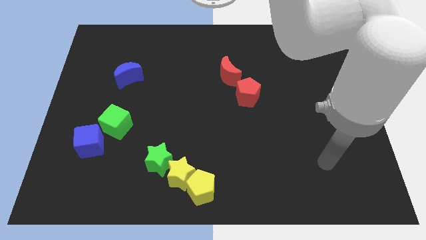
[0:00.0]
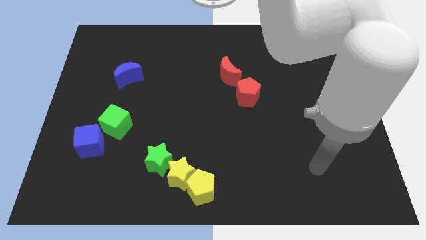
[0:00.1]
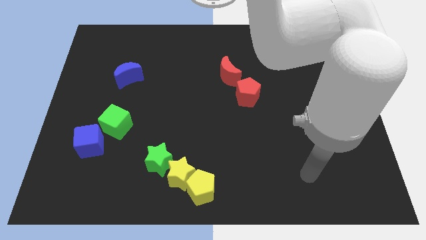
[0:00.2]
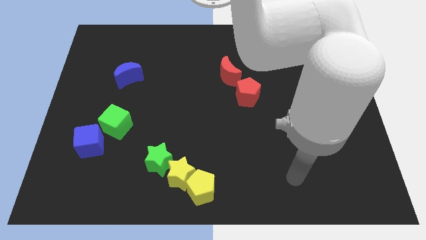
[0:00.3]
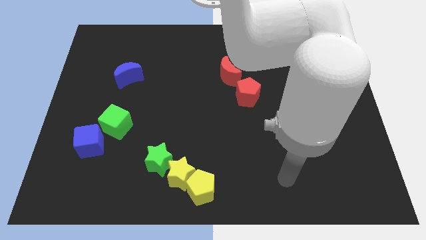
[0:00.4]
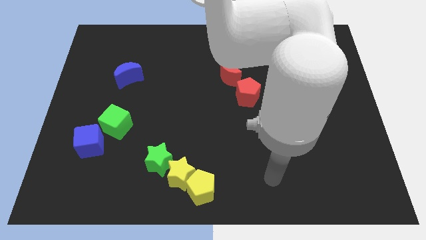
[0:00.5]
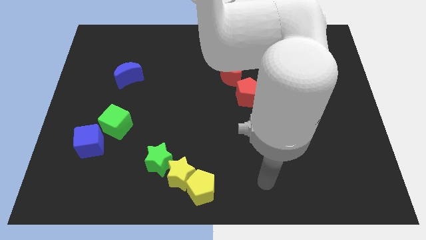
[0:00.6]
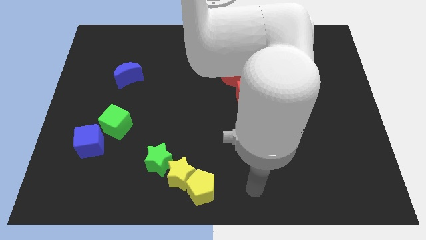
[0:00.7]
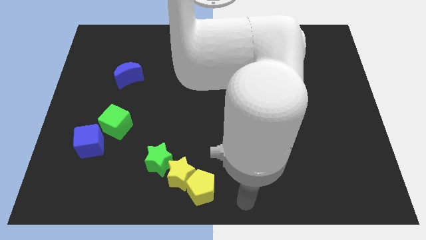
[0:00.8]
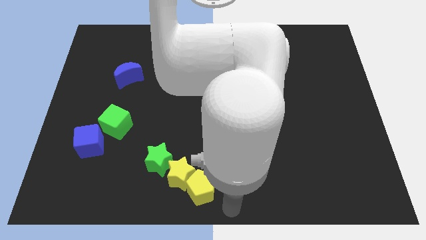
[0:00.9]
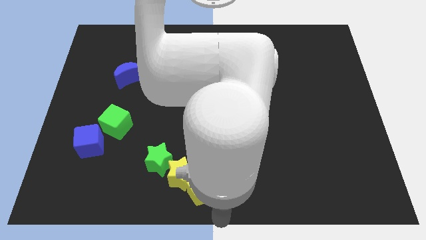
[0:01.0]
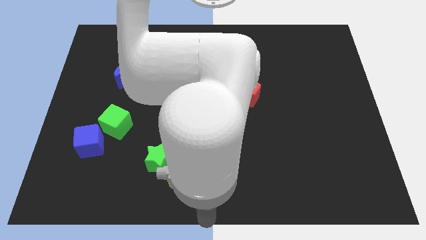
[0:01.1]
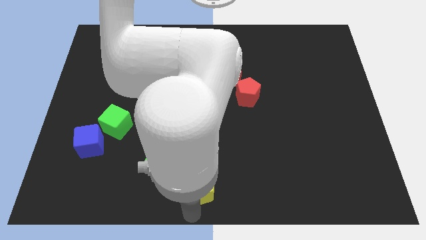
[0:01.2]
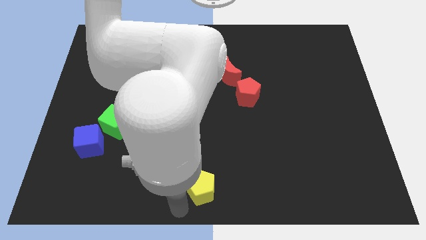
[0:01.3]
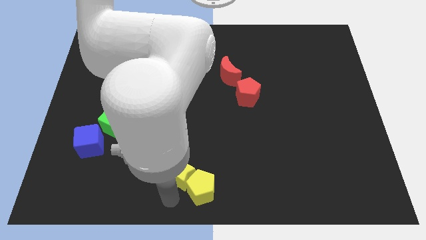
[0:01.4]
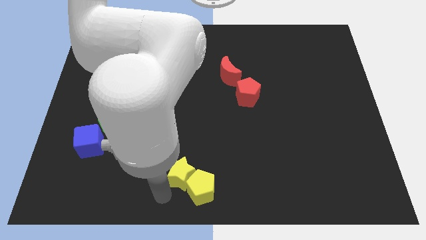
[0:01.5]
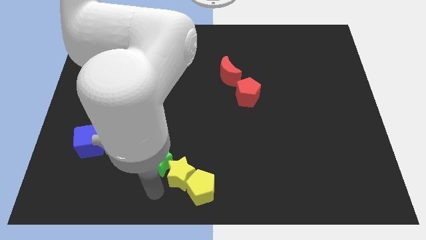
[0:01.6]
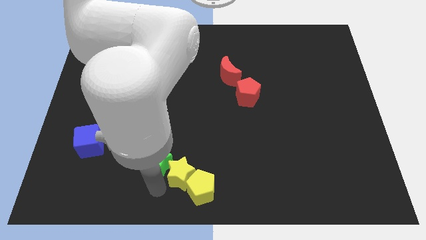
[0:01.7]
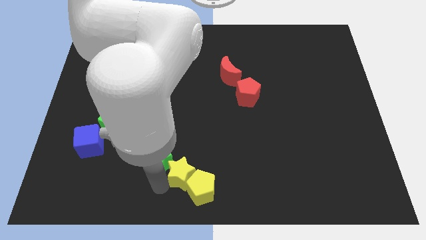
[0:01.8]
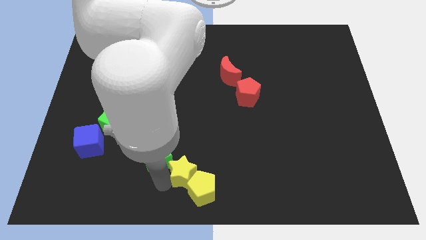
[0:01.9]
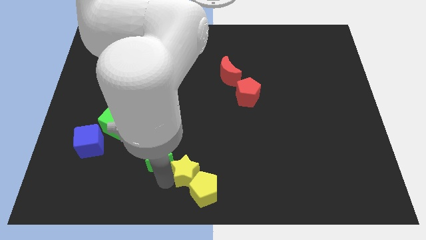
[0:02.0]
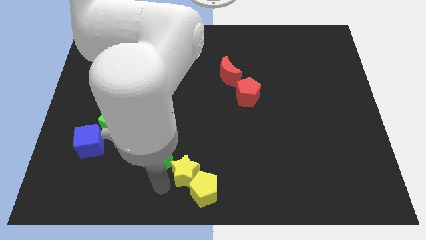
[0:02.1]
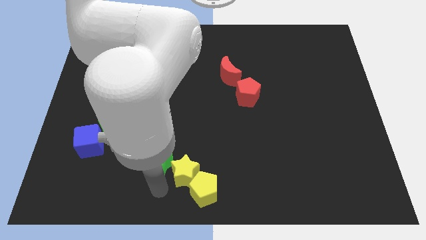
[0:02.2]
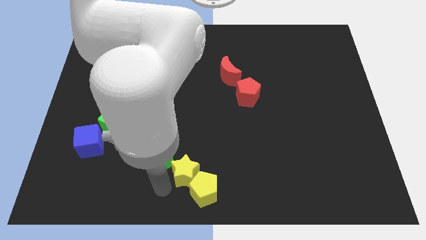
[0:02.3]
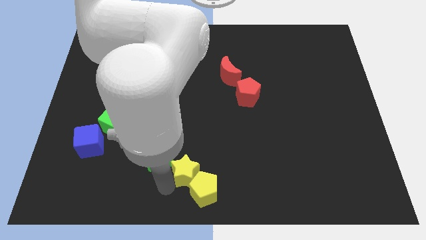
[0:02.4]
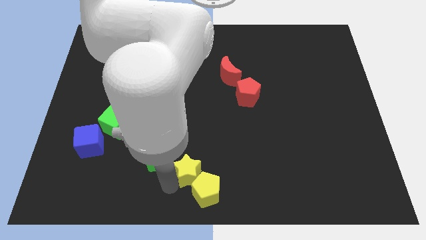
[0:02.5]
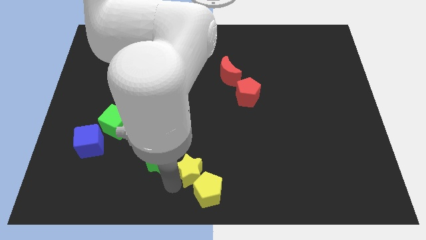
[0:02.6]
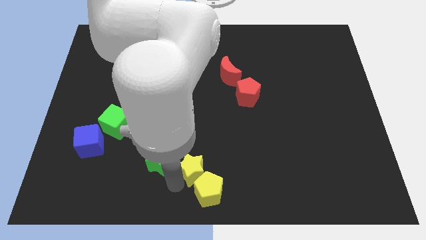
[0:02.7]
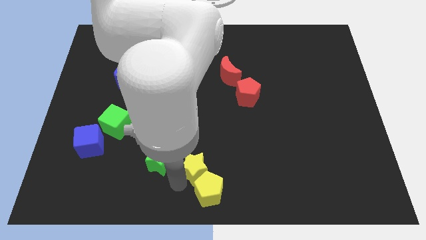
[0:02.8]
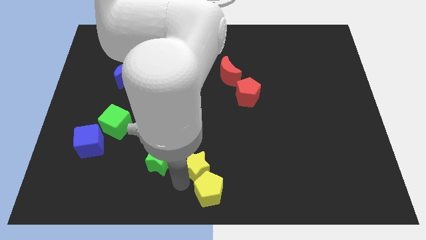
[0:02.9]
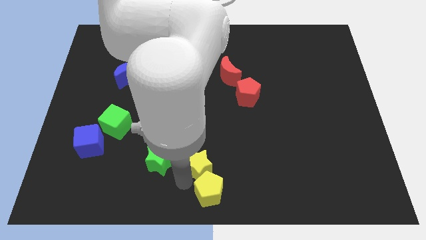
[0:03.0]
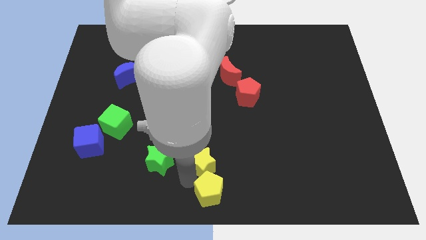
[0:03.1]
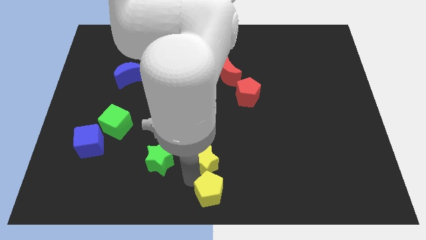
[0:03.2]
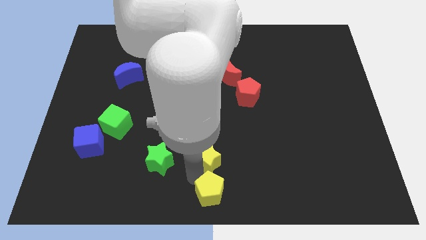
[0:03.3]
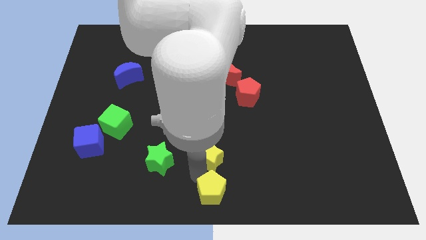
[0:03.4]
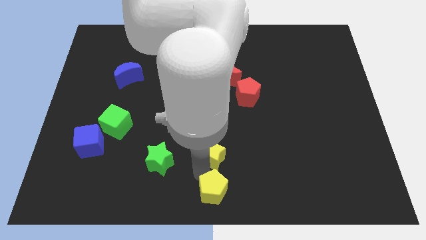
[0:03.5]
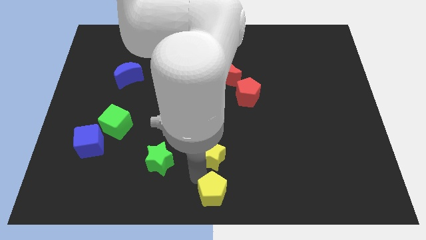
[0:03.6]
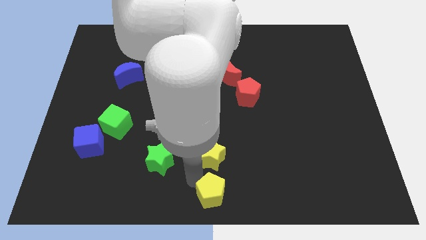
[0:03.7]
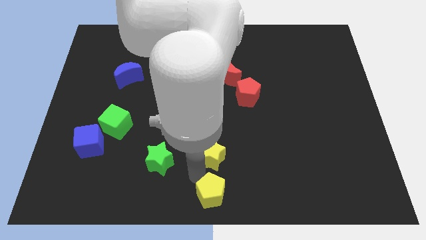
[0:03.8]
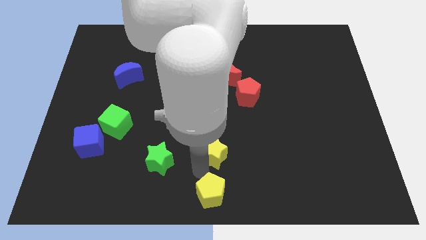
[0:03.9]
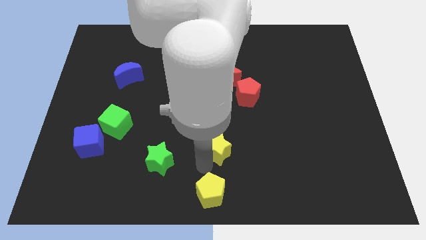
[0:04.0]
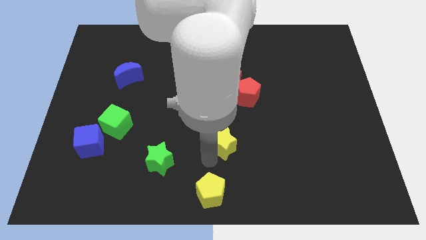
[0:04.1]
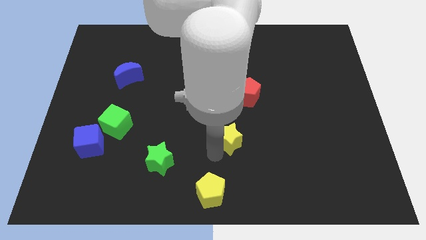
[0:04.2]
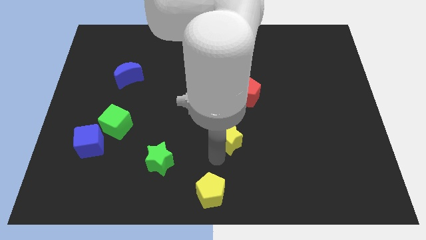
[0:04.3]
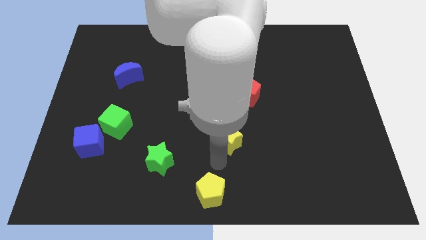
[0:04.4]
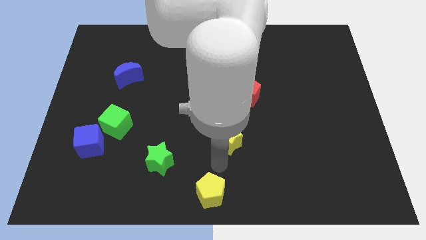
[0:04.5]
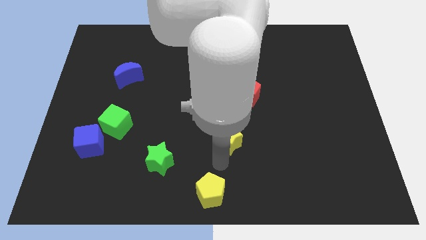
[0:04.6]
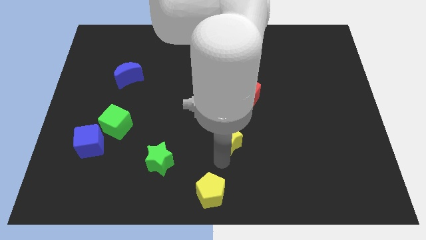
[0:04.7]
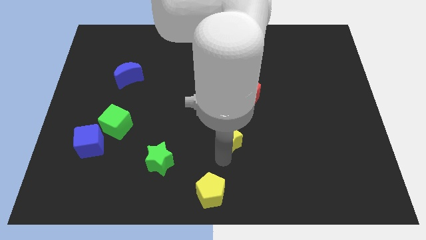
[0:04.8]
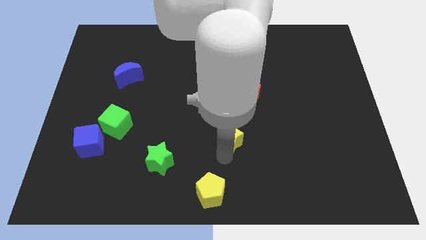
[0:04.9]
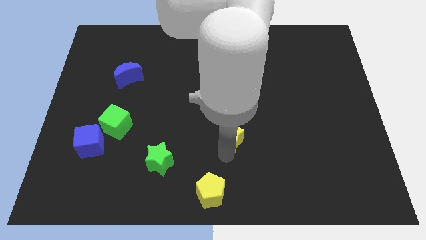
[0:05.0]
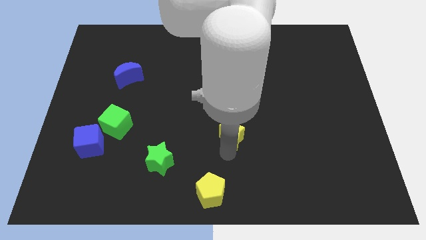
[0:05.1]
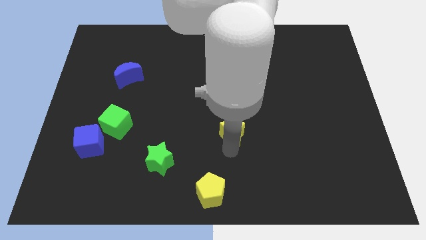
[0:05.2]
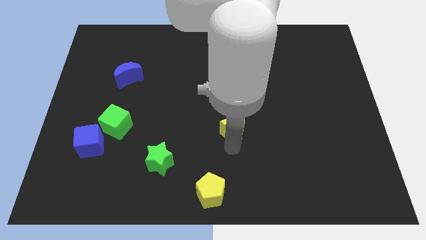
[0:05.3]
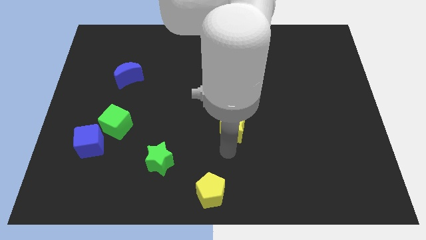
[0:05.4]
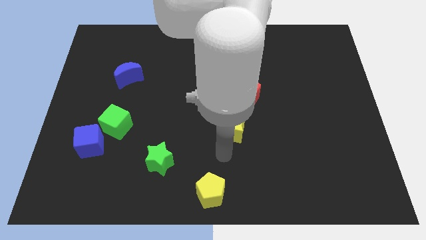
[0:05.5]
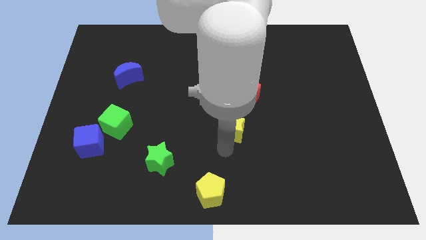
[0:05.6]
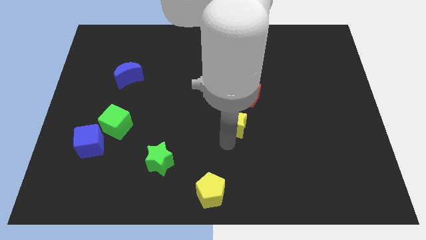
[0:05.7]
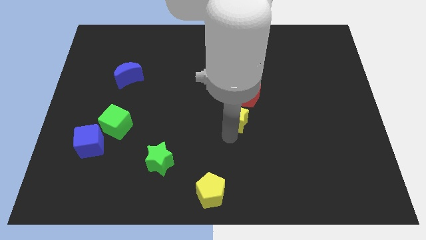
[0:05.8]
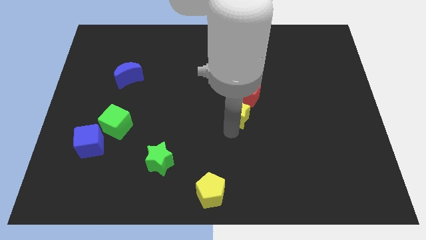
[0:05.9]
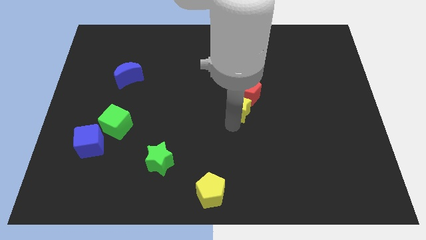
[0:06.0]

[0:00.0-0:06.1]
put the yellow star close to the red pentagon

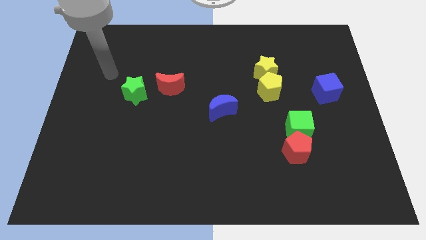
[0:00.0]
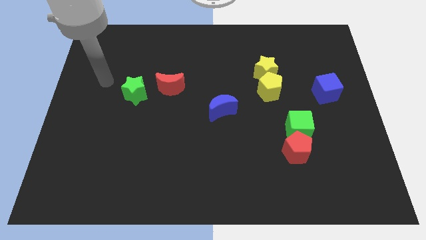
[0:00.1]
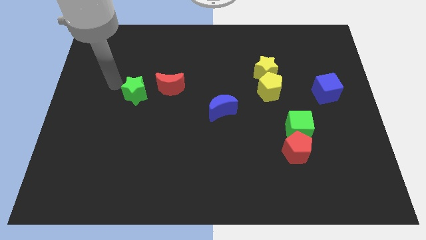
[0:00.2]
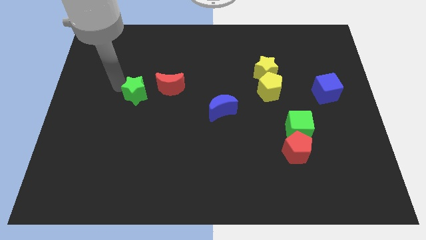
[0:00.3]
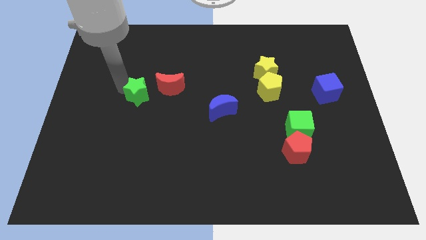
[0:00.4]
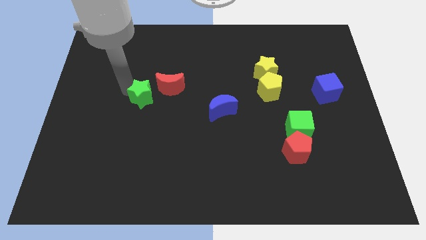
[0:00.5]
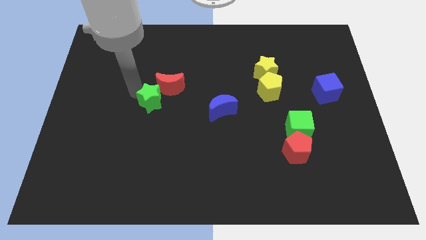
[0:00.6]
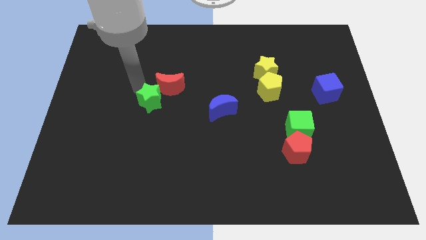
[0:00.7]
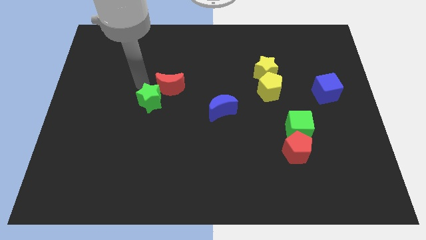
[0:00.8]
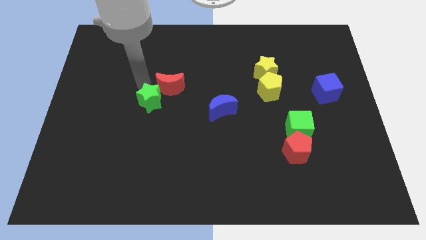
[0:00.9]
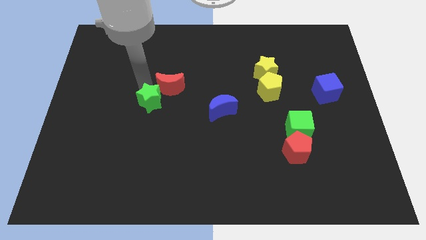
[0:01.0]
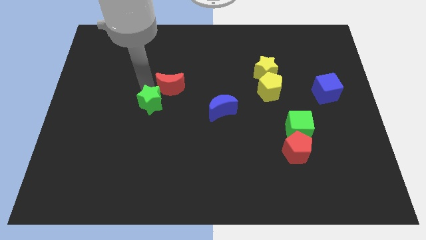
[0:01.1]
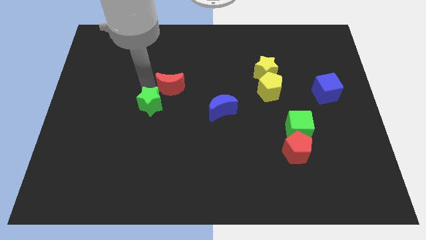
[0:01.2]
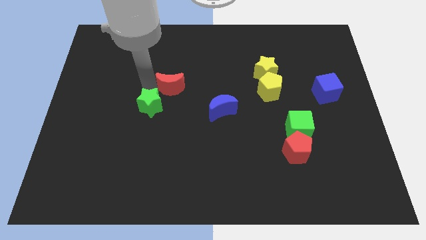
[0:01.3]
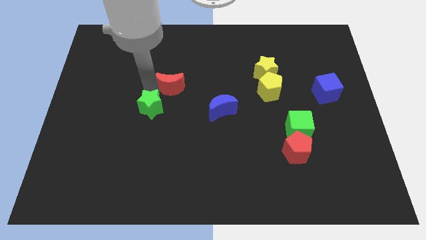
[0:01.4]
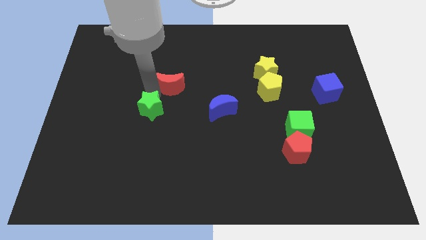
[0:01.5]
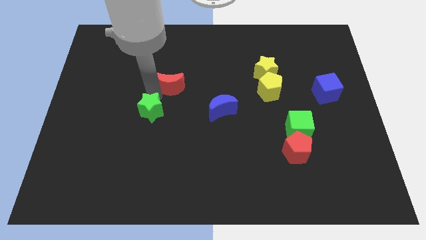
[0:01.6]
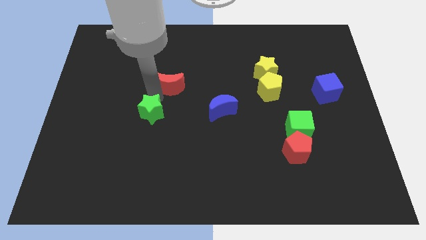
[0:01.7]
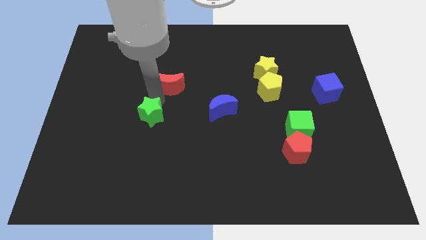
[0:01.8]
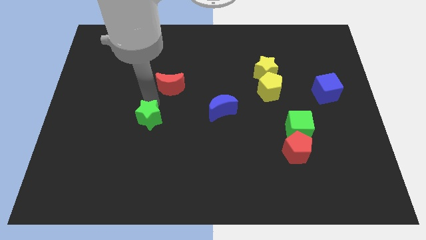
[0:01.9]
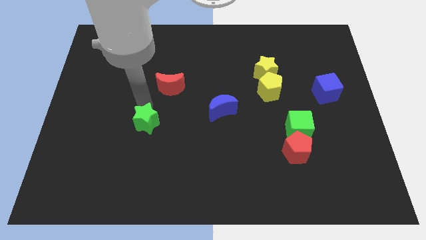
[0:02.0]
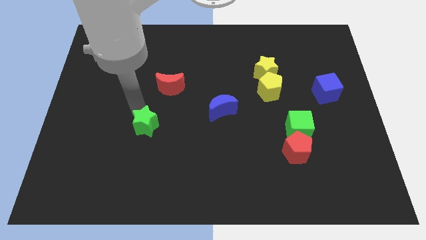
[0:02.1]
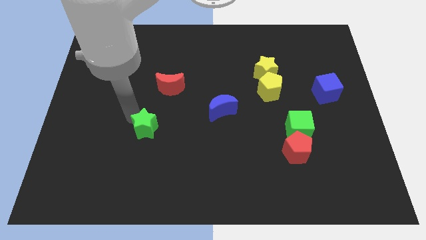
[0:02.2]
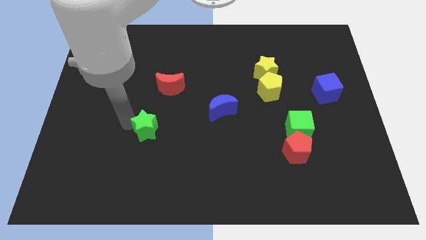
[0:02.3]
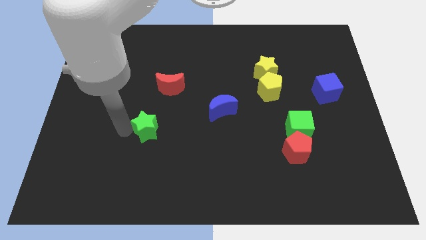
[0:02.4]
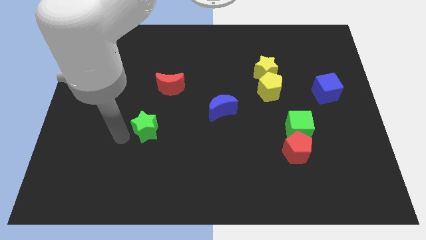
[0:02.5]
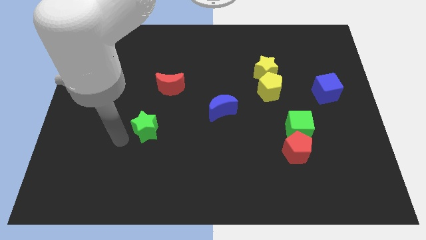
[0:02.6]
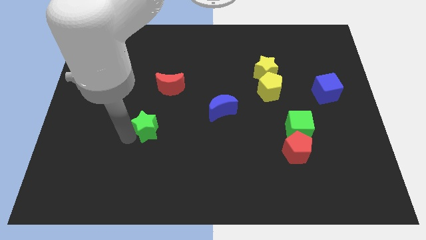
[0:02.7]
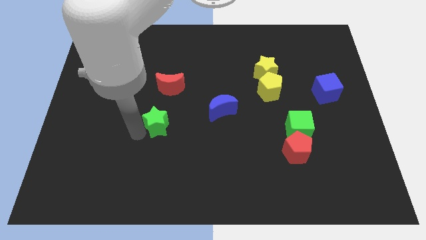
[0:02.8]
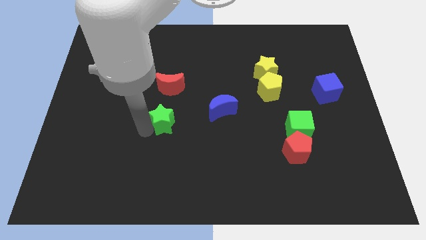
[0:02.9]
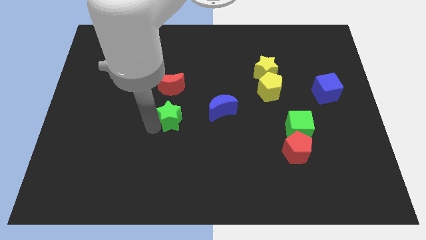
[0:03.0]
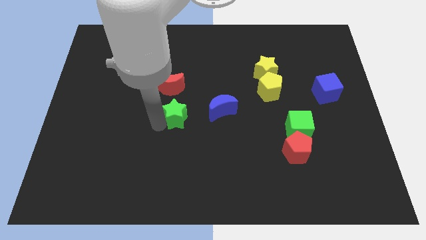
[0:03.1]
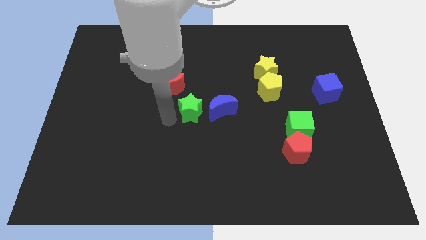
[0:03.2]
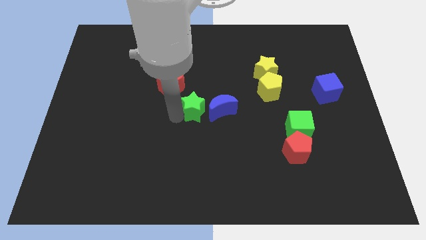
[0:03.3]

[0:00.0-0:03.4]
slide the green star towards the blue moon
